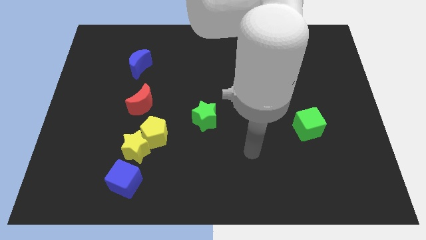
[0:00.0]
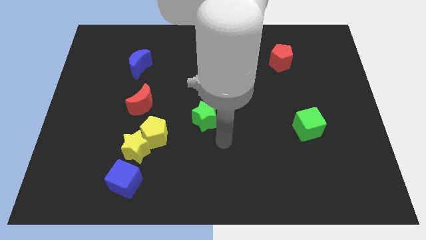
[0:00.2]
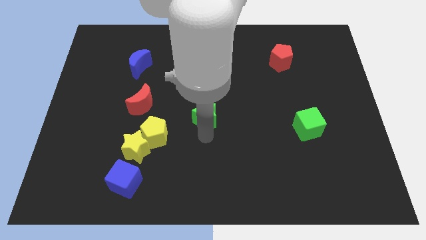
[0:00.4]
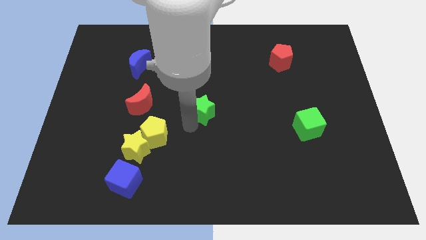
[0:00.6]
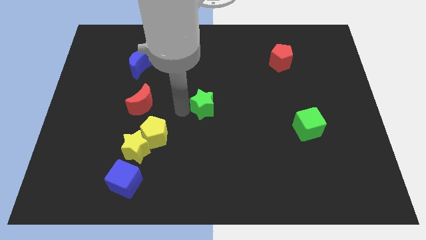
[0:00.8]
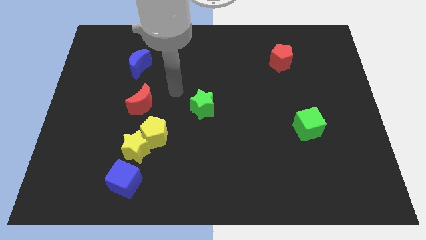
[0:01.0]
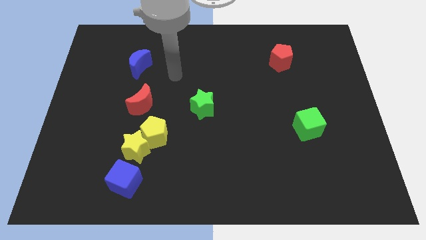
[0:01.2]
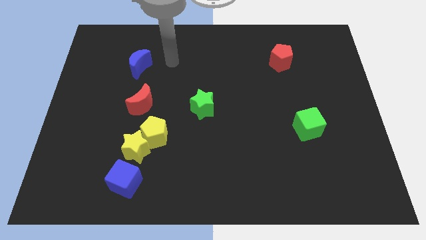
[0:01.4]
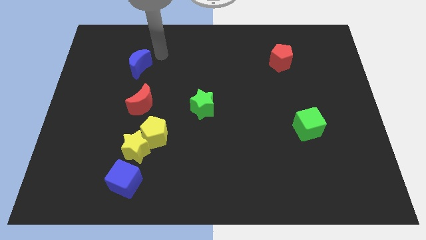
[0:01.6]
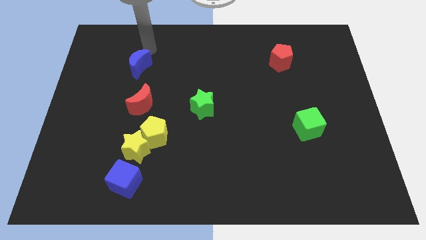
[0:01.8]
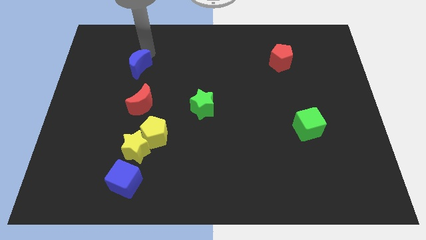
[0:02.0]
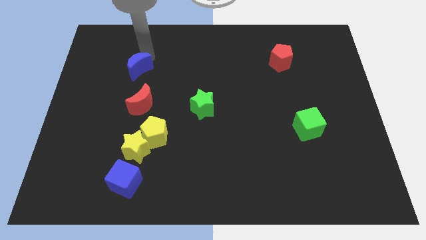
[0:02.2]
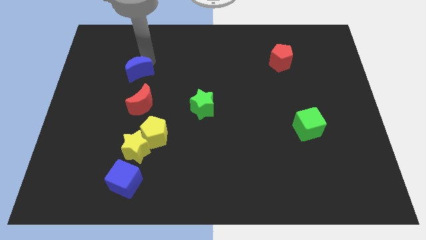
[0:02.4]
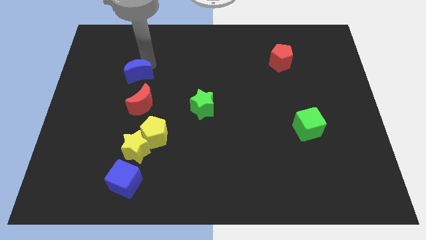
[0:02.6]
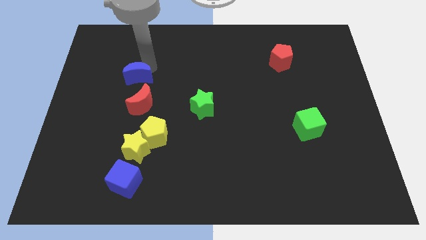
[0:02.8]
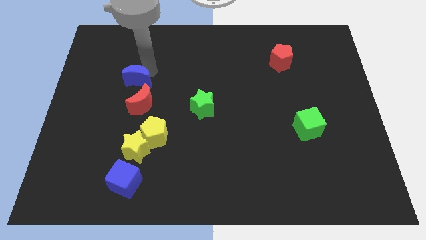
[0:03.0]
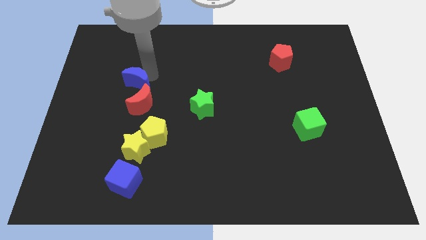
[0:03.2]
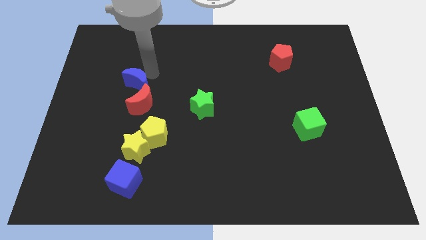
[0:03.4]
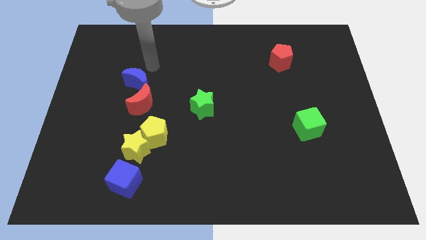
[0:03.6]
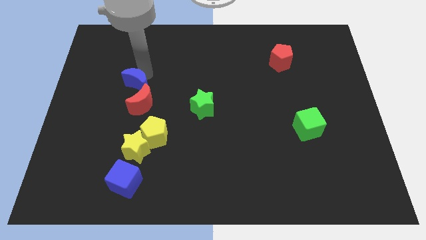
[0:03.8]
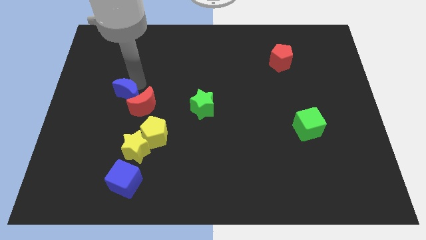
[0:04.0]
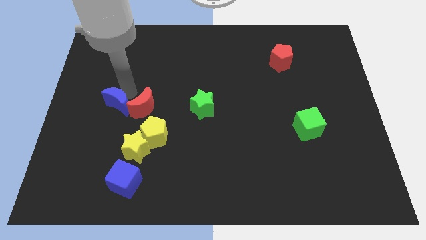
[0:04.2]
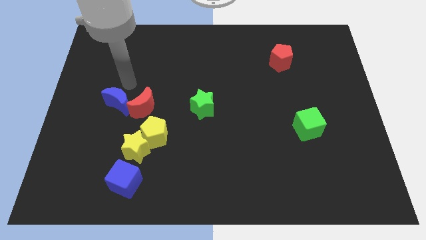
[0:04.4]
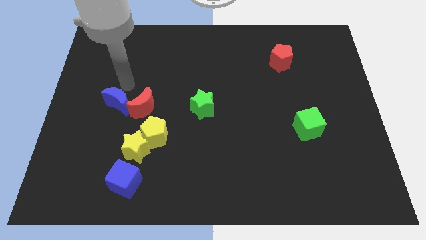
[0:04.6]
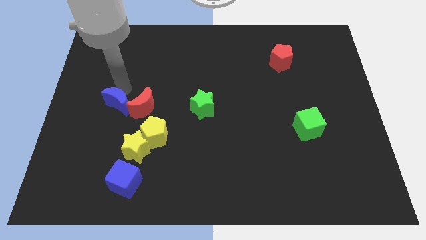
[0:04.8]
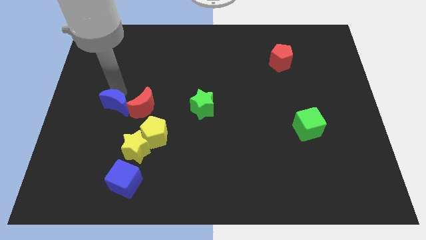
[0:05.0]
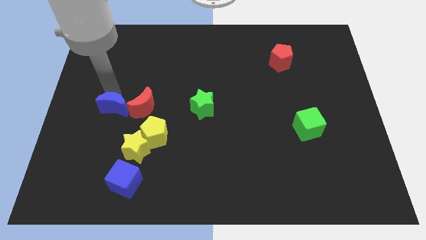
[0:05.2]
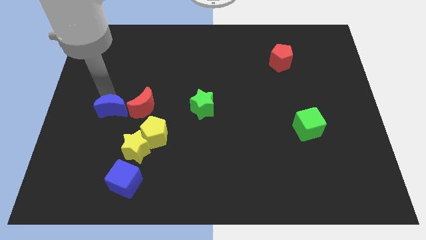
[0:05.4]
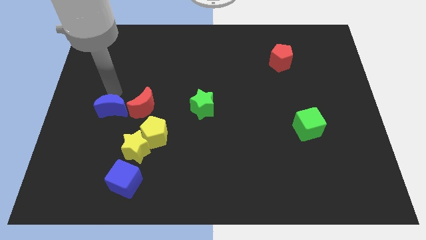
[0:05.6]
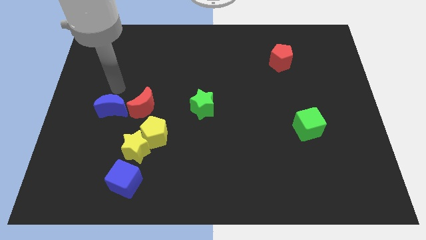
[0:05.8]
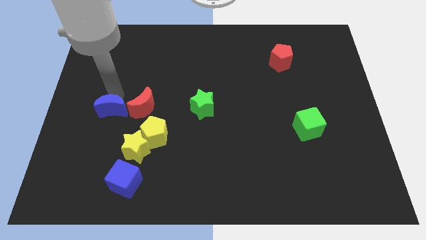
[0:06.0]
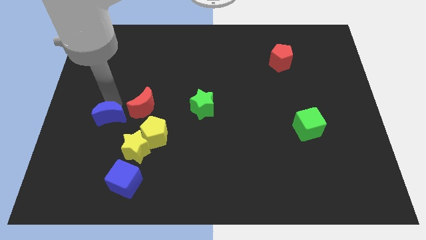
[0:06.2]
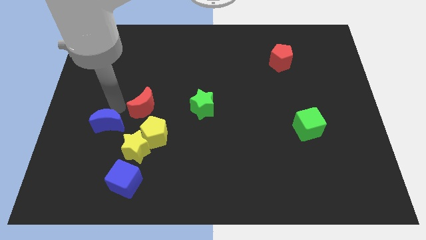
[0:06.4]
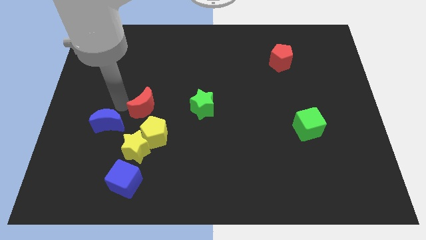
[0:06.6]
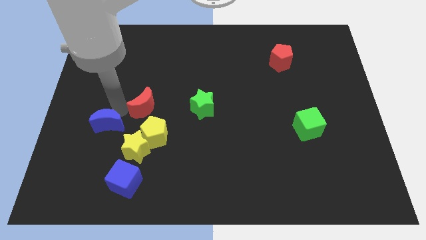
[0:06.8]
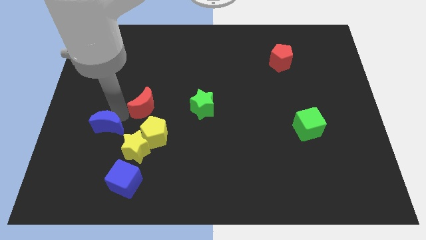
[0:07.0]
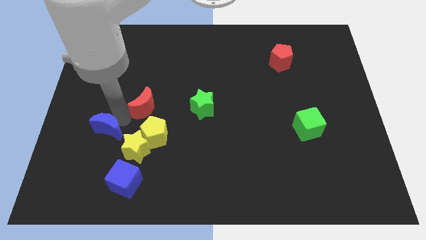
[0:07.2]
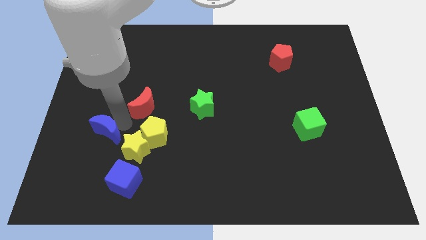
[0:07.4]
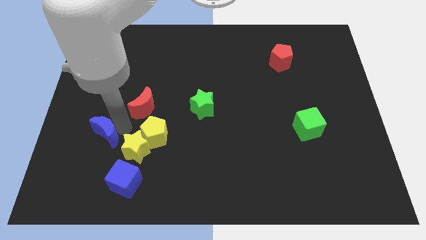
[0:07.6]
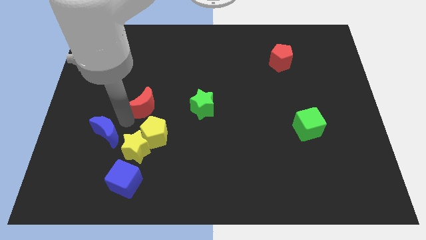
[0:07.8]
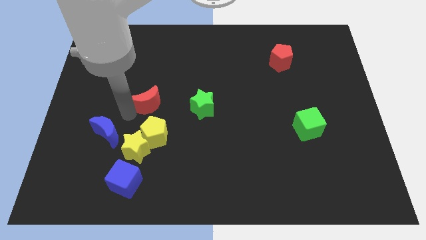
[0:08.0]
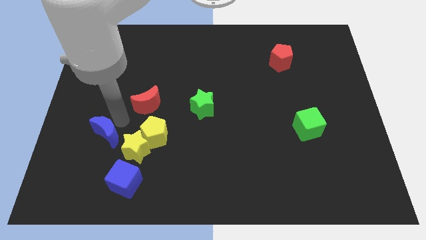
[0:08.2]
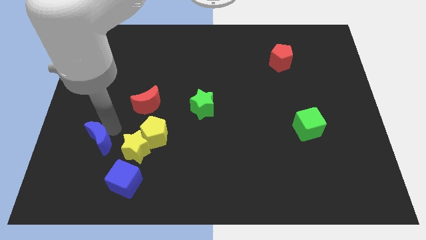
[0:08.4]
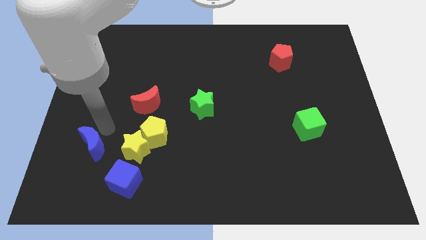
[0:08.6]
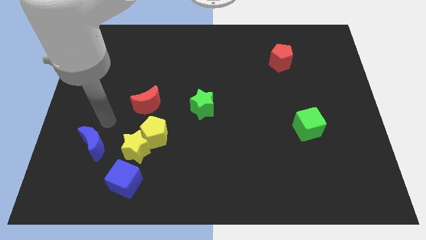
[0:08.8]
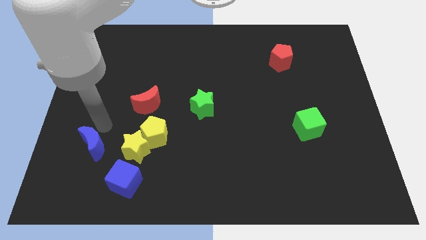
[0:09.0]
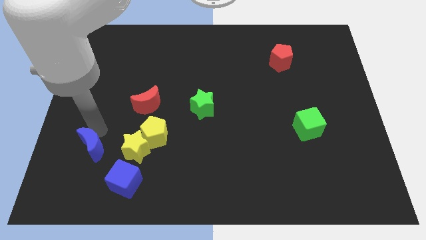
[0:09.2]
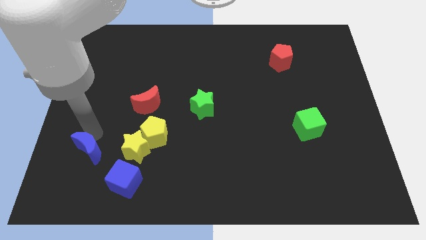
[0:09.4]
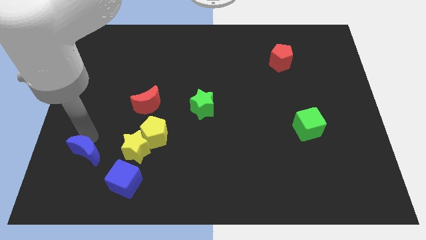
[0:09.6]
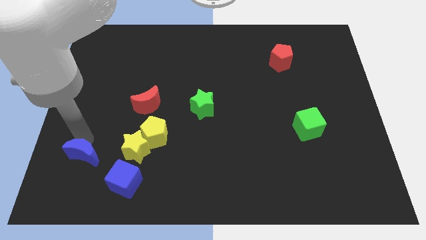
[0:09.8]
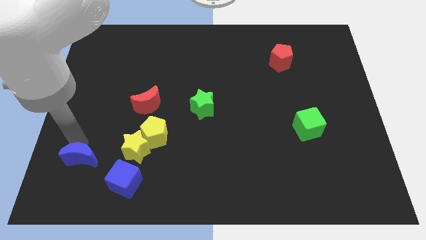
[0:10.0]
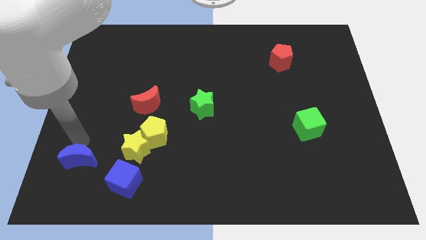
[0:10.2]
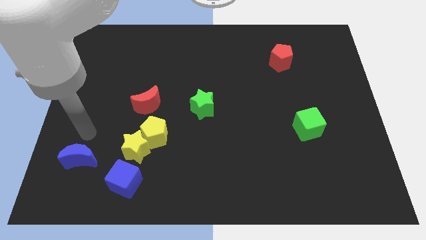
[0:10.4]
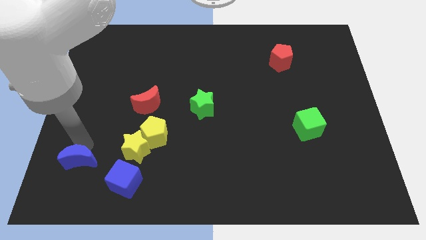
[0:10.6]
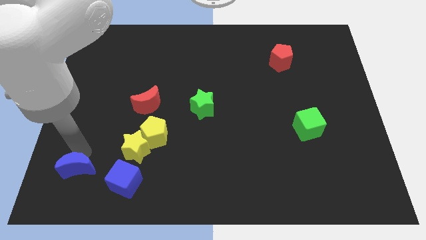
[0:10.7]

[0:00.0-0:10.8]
put the blue moon to the left of the blue cube

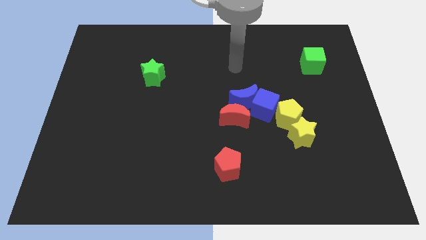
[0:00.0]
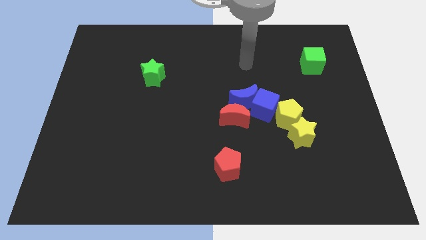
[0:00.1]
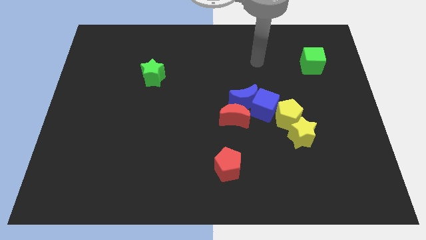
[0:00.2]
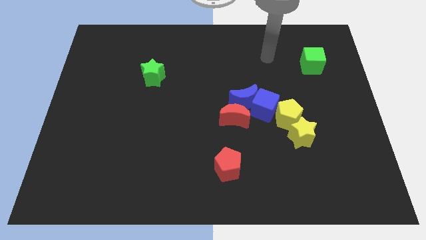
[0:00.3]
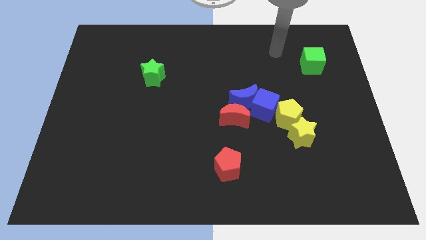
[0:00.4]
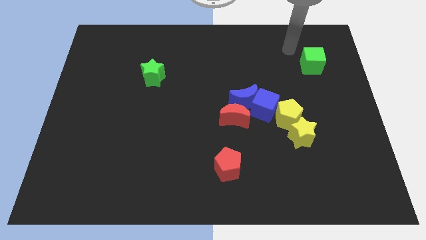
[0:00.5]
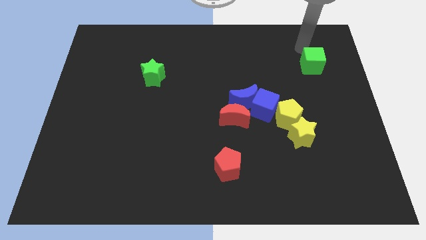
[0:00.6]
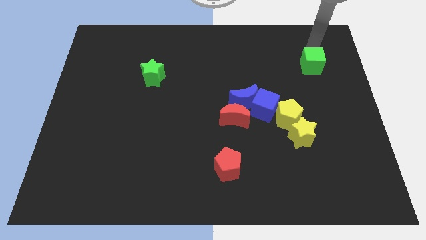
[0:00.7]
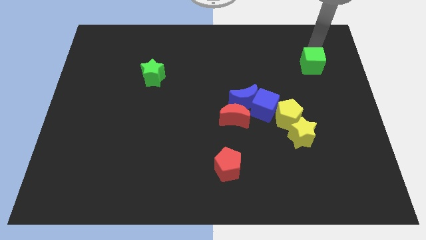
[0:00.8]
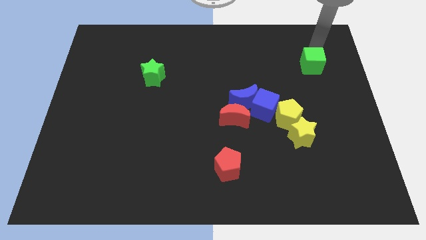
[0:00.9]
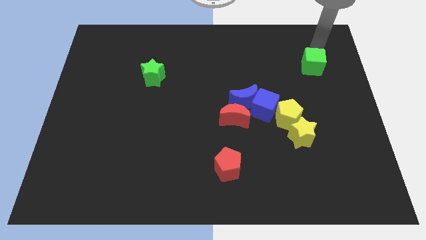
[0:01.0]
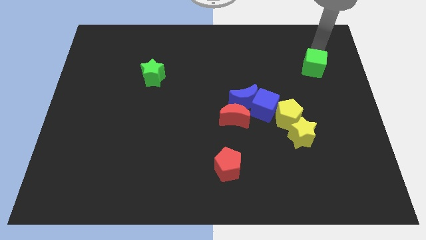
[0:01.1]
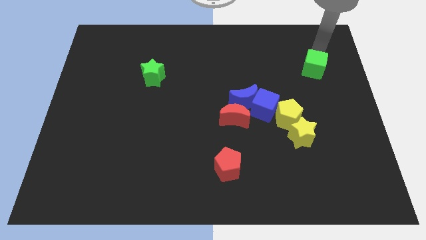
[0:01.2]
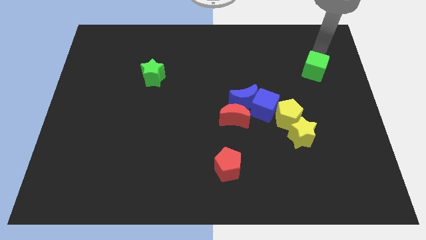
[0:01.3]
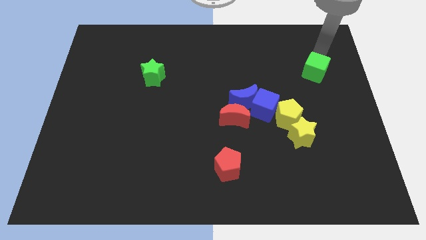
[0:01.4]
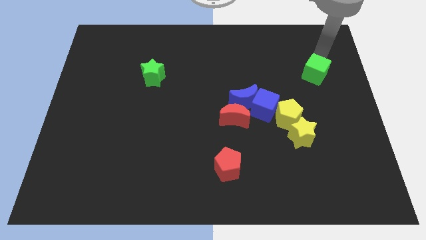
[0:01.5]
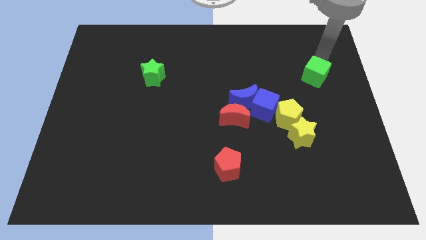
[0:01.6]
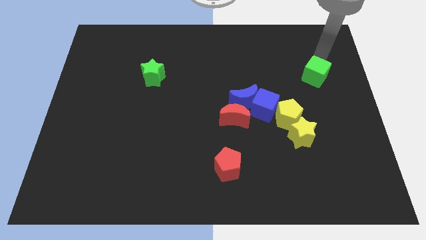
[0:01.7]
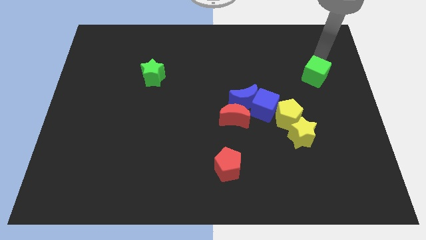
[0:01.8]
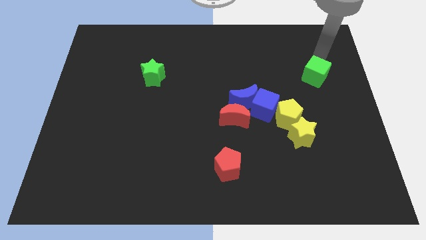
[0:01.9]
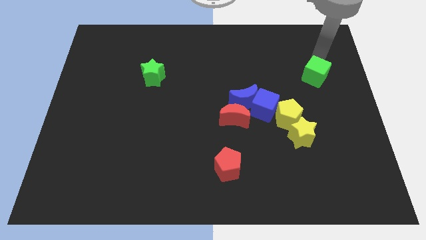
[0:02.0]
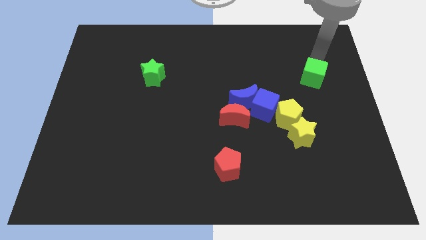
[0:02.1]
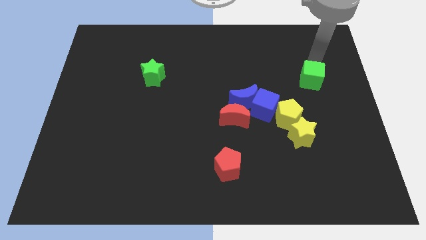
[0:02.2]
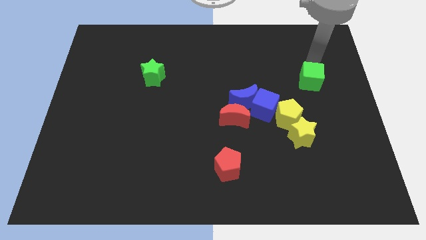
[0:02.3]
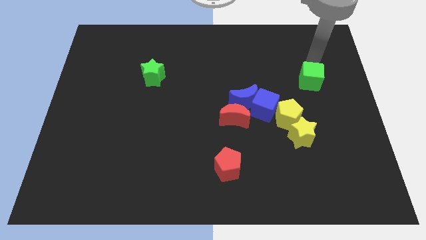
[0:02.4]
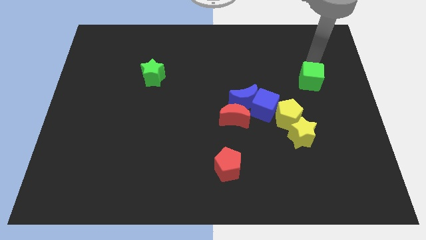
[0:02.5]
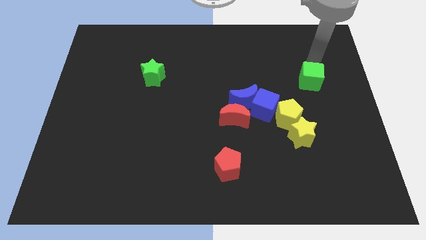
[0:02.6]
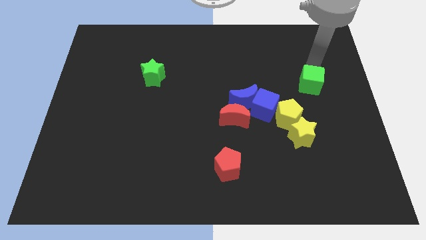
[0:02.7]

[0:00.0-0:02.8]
move the green cube diagonally up and to the right of the yellow pentagon
